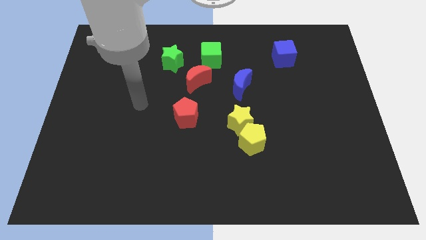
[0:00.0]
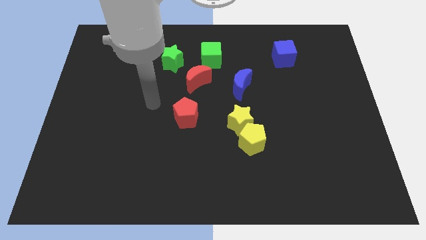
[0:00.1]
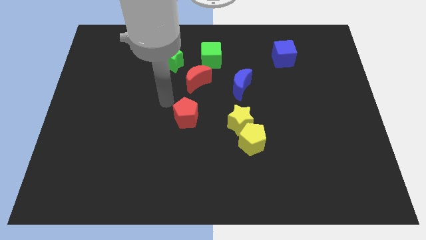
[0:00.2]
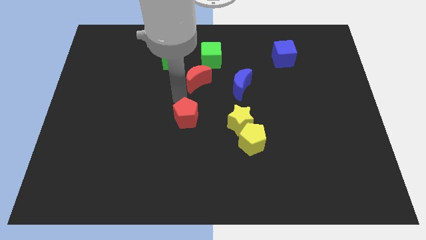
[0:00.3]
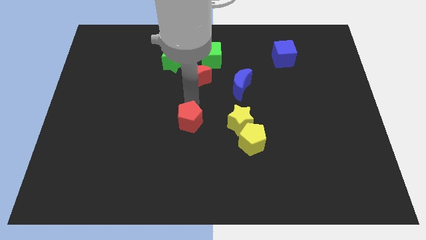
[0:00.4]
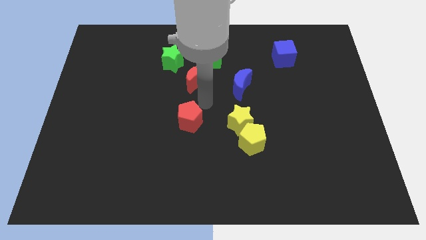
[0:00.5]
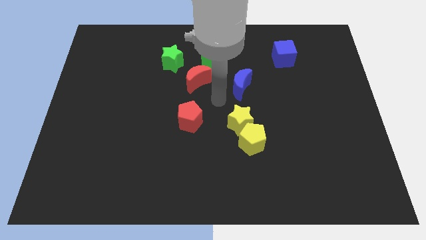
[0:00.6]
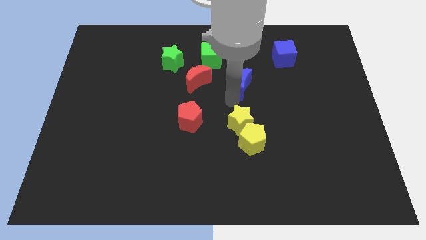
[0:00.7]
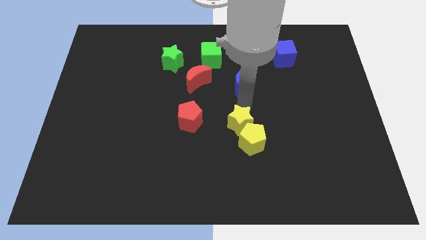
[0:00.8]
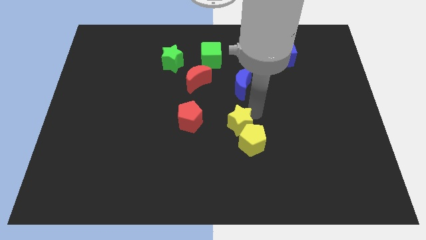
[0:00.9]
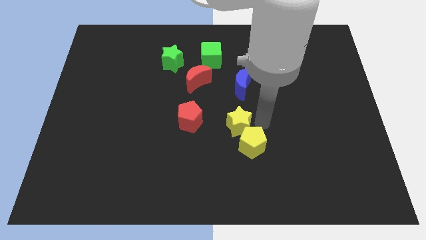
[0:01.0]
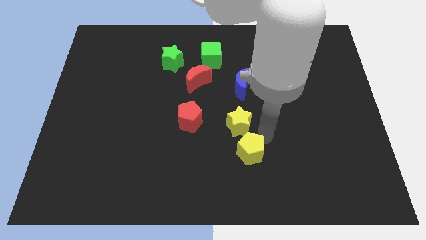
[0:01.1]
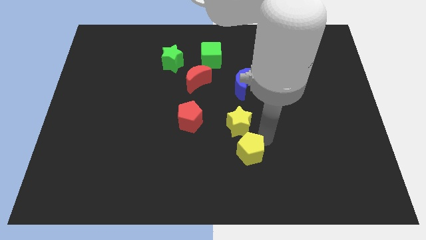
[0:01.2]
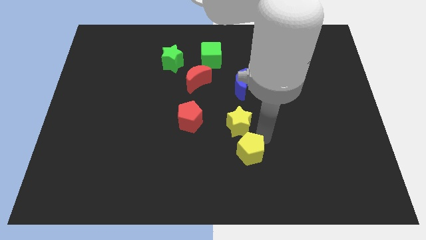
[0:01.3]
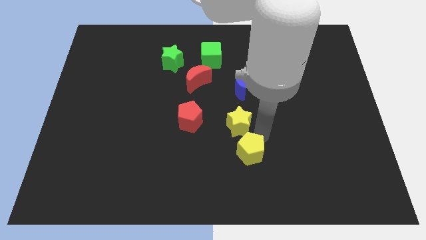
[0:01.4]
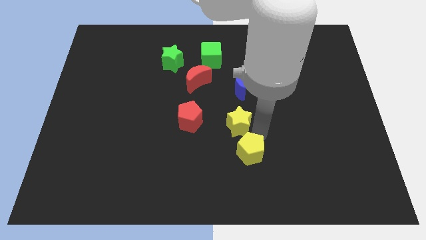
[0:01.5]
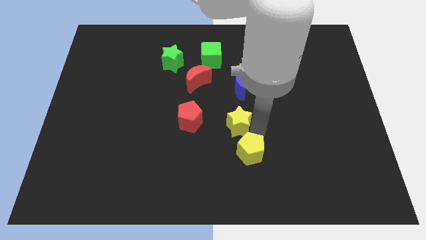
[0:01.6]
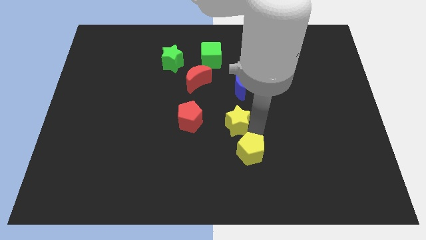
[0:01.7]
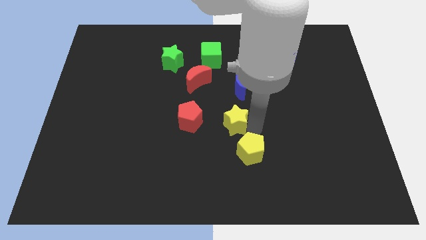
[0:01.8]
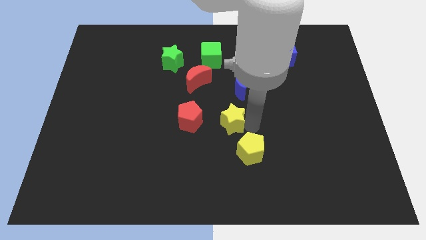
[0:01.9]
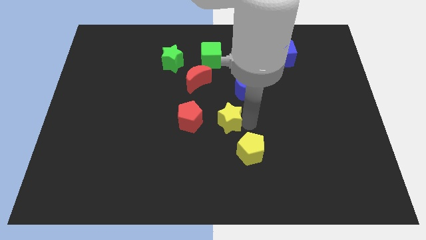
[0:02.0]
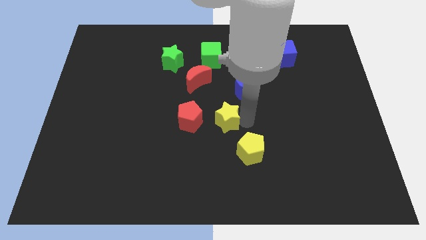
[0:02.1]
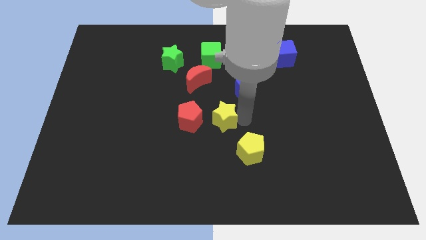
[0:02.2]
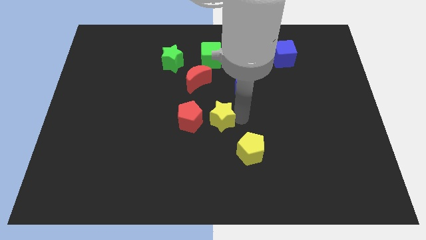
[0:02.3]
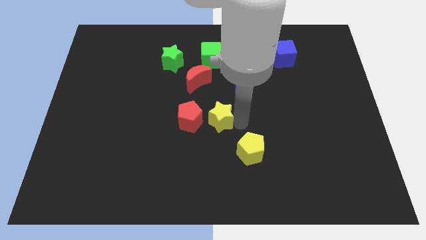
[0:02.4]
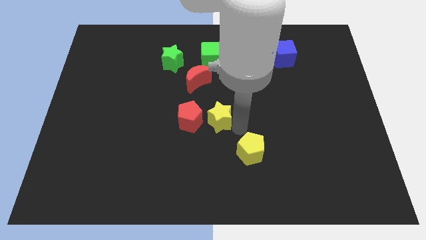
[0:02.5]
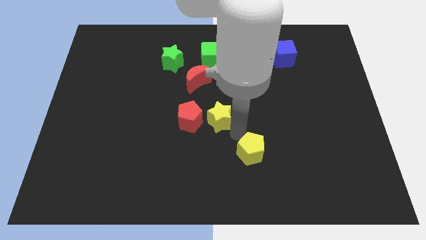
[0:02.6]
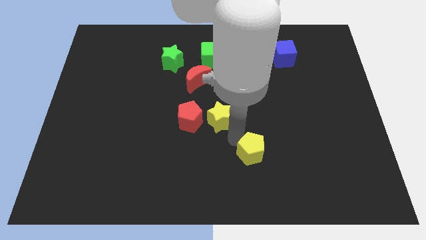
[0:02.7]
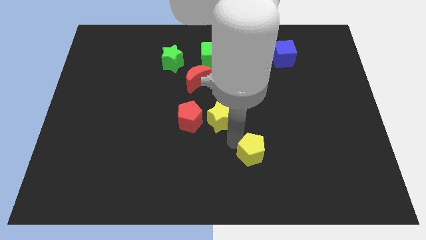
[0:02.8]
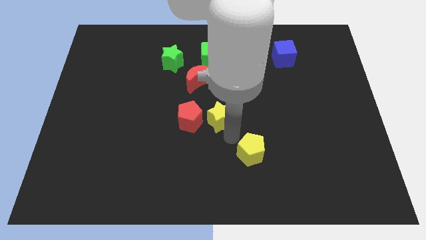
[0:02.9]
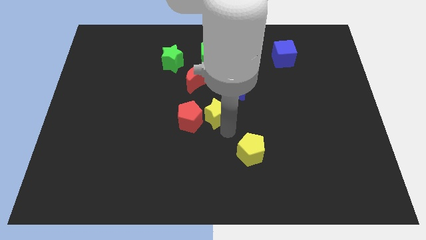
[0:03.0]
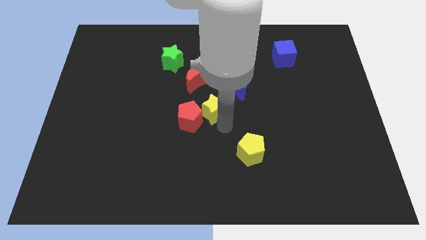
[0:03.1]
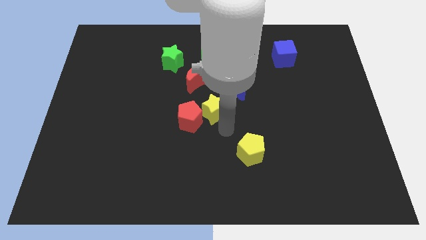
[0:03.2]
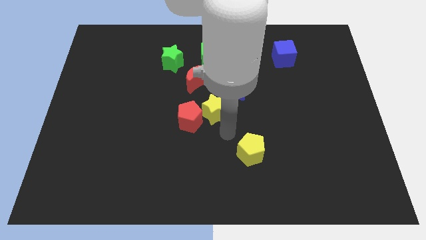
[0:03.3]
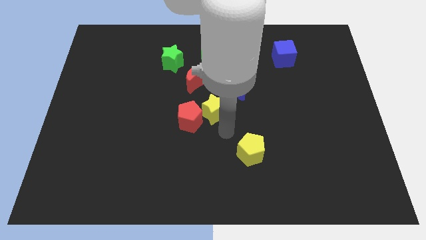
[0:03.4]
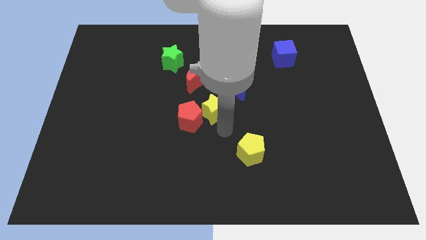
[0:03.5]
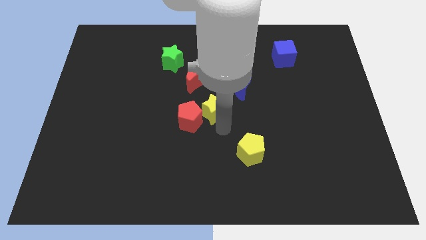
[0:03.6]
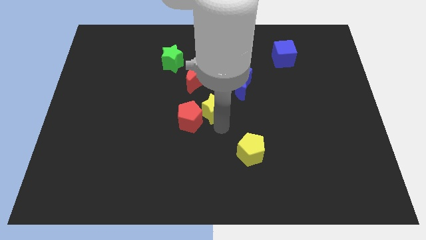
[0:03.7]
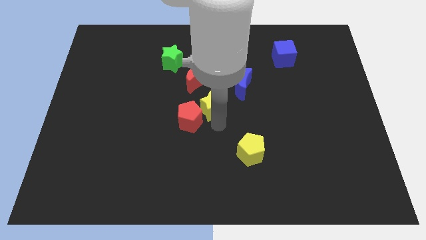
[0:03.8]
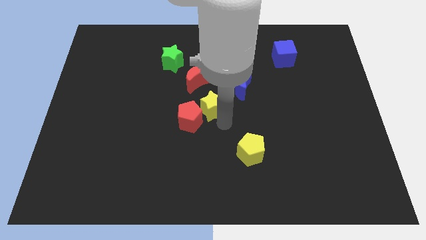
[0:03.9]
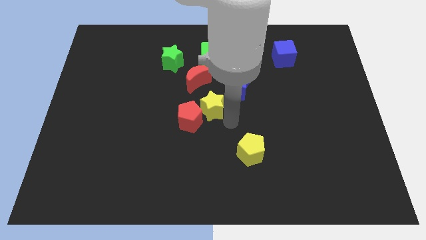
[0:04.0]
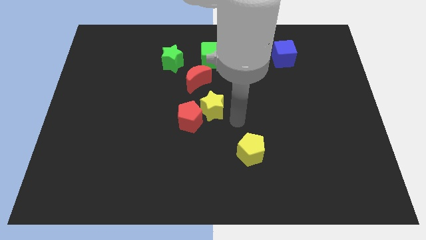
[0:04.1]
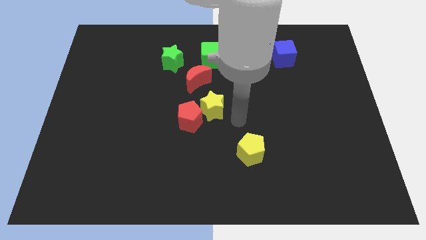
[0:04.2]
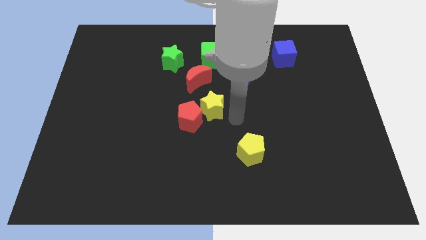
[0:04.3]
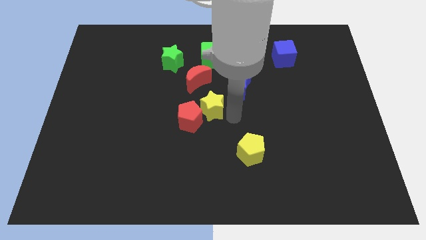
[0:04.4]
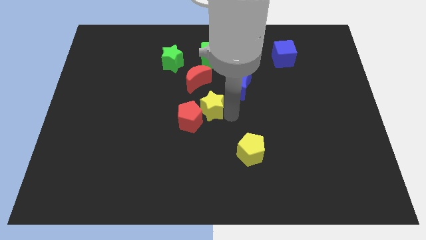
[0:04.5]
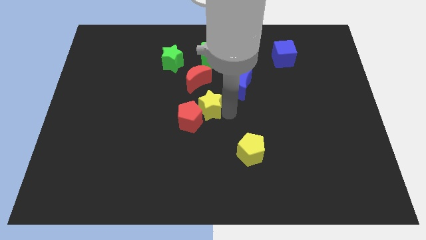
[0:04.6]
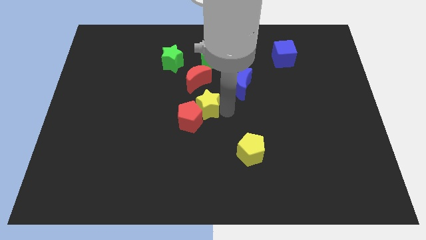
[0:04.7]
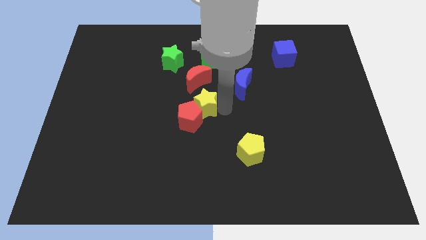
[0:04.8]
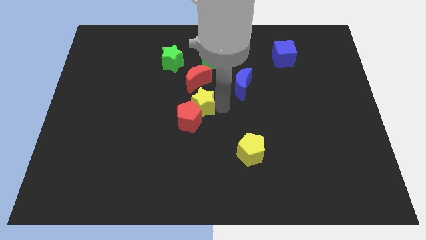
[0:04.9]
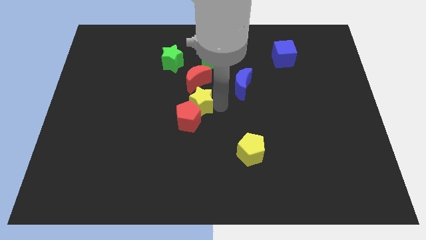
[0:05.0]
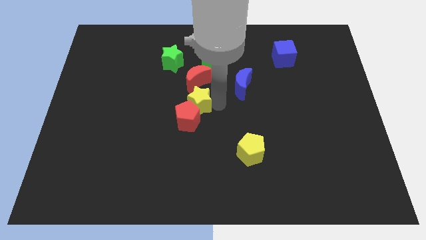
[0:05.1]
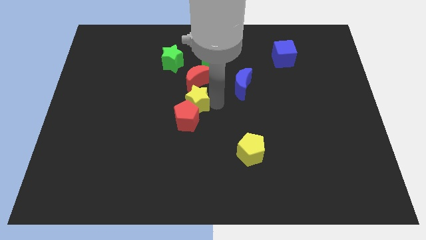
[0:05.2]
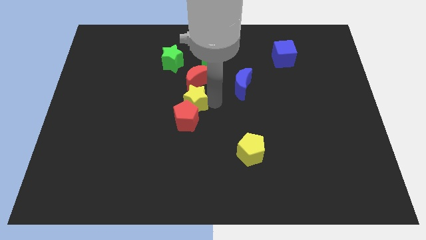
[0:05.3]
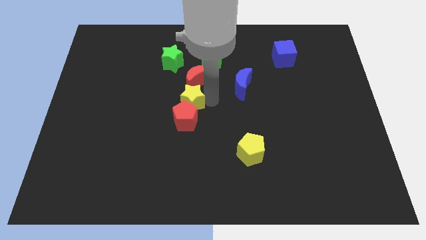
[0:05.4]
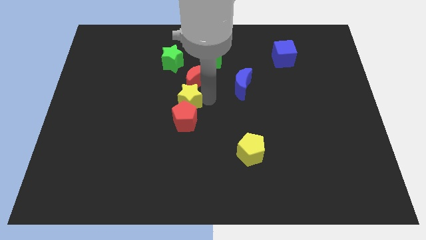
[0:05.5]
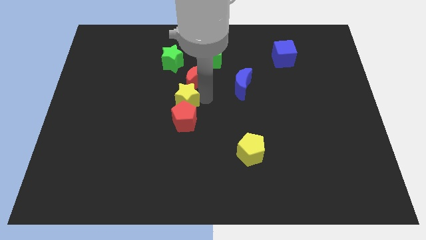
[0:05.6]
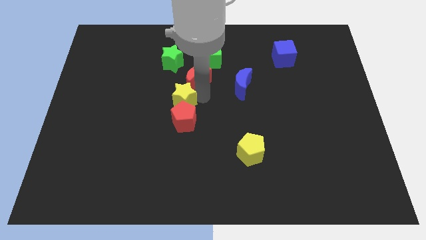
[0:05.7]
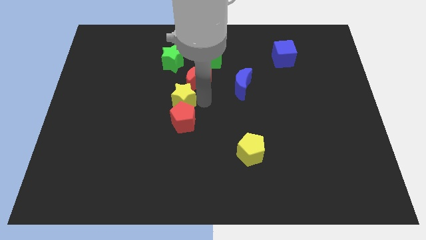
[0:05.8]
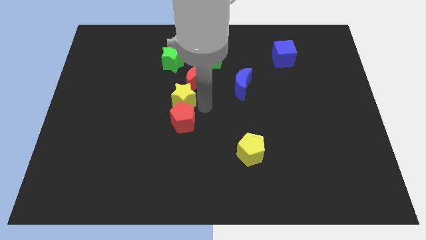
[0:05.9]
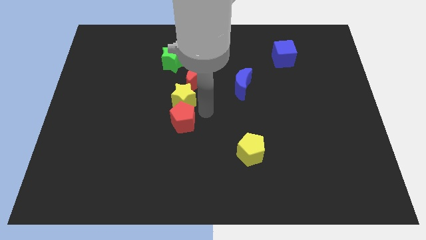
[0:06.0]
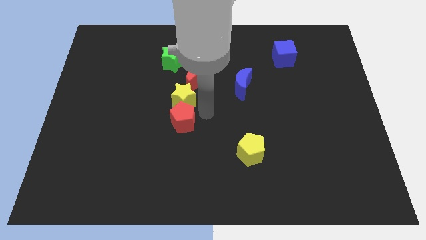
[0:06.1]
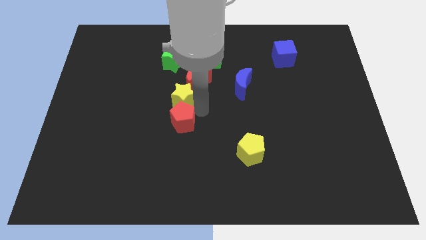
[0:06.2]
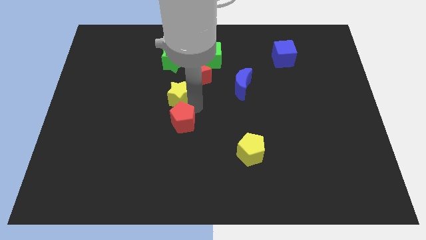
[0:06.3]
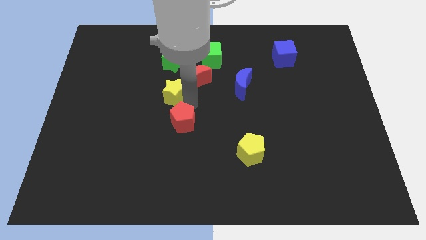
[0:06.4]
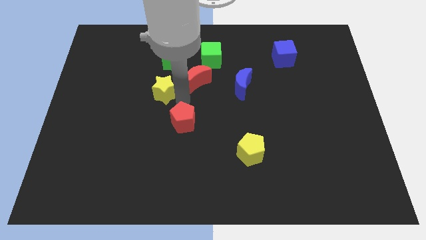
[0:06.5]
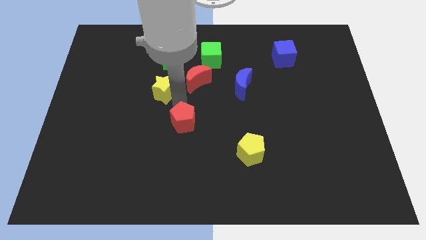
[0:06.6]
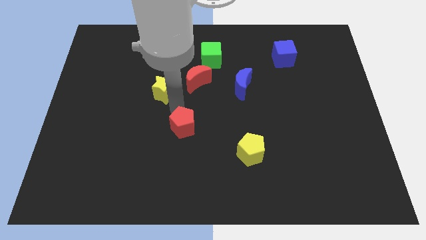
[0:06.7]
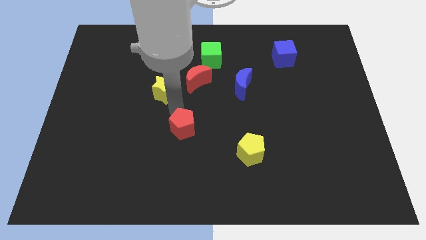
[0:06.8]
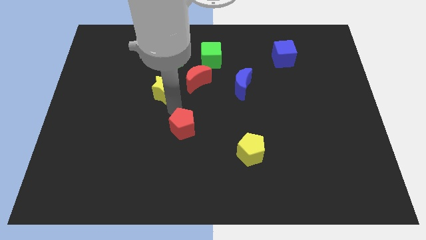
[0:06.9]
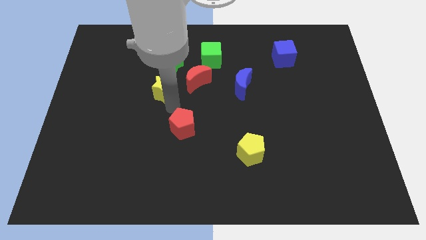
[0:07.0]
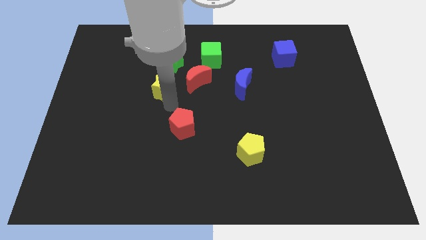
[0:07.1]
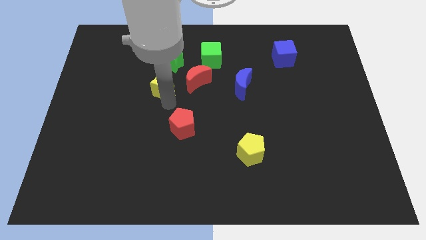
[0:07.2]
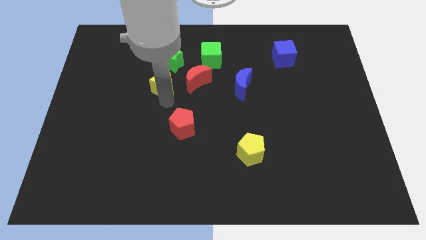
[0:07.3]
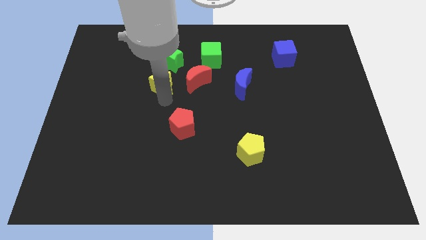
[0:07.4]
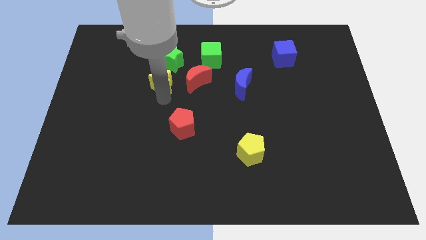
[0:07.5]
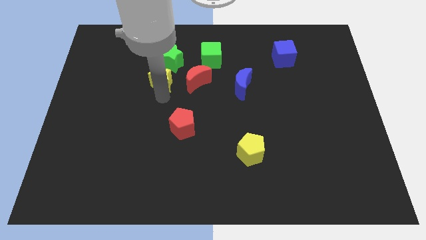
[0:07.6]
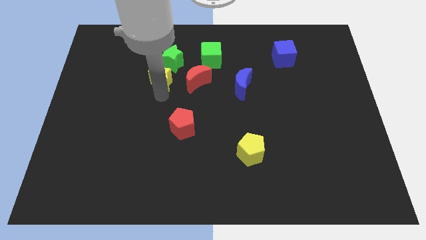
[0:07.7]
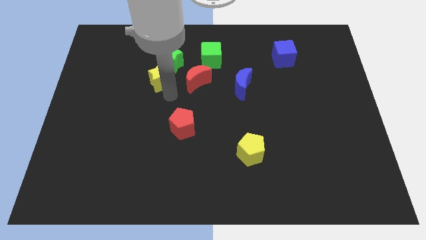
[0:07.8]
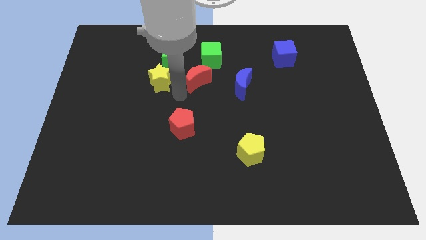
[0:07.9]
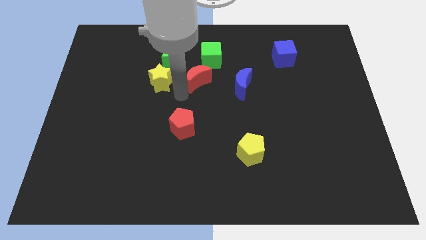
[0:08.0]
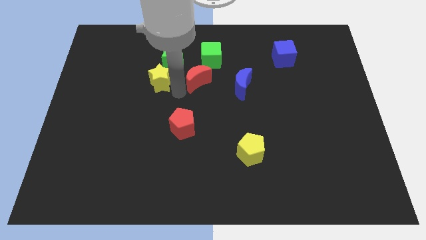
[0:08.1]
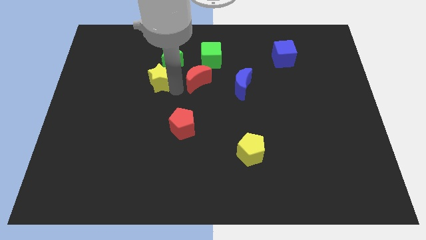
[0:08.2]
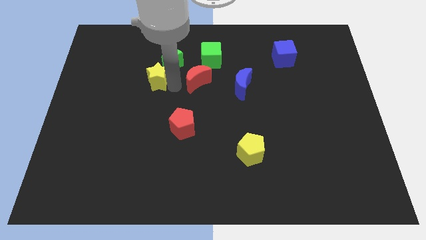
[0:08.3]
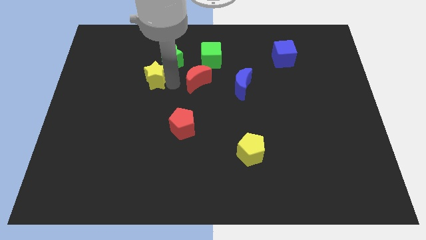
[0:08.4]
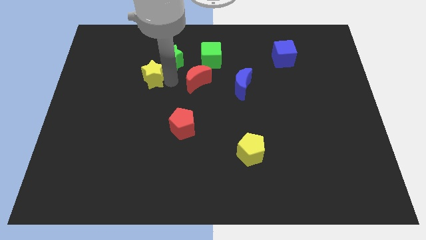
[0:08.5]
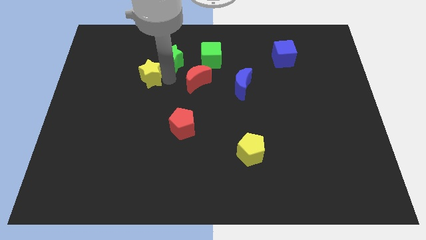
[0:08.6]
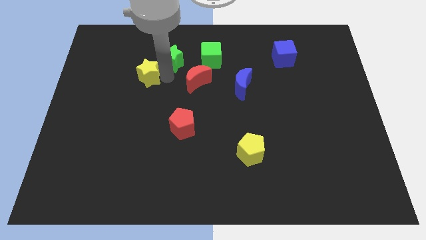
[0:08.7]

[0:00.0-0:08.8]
put the yellow star left of the green star
